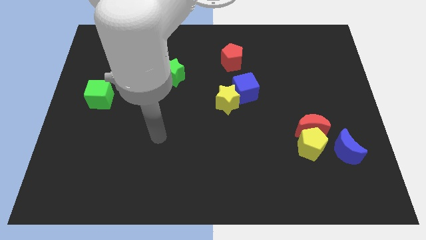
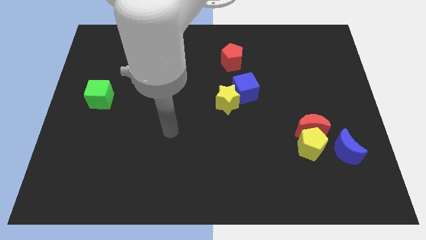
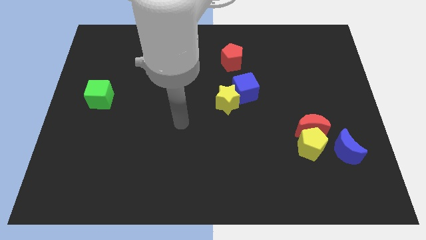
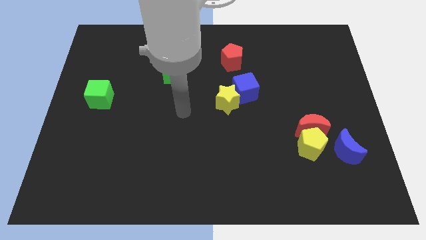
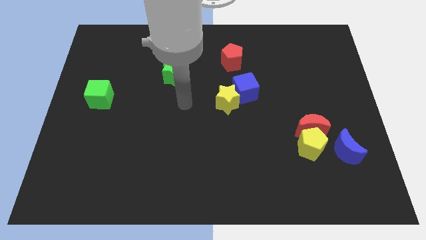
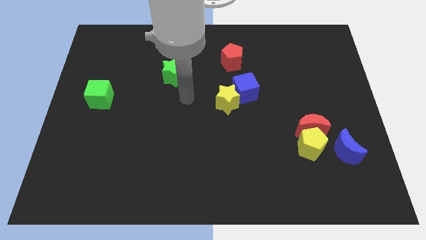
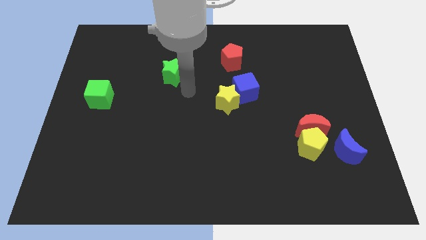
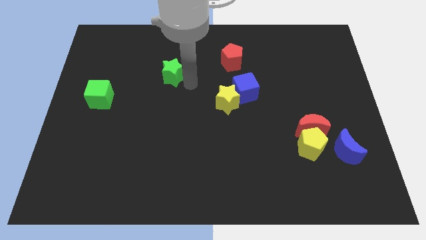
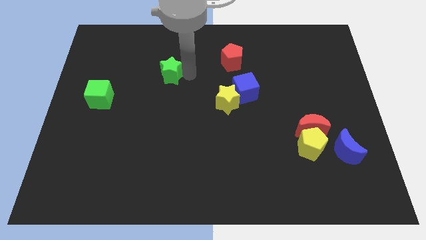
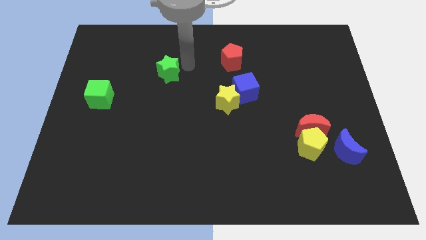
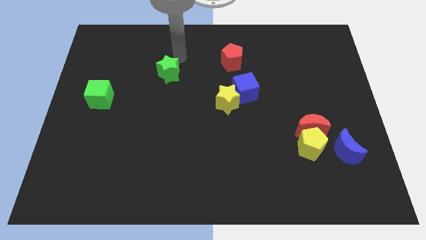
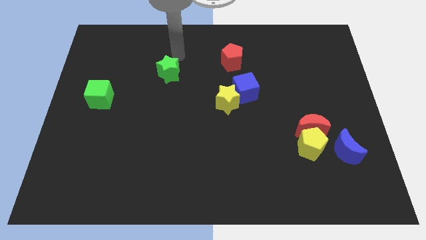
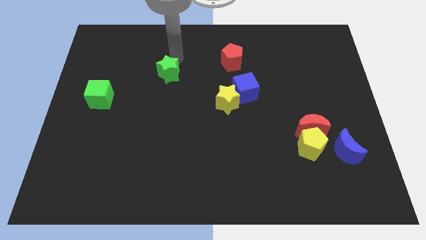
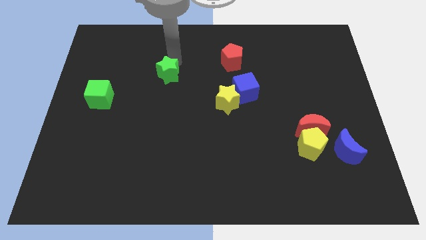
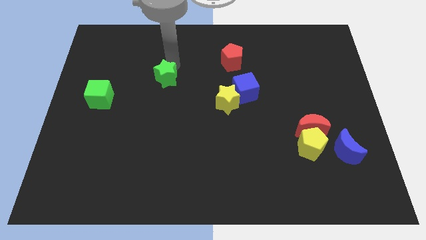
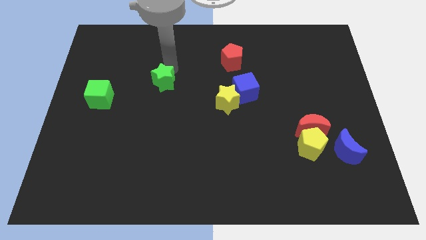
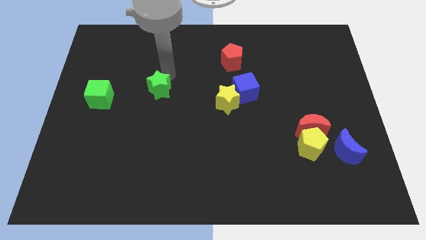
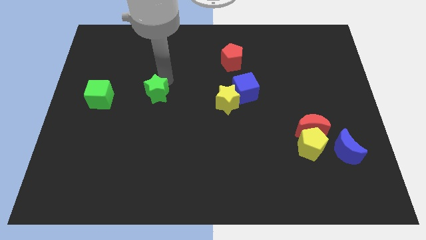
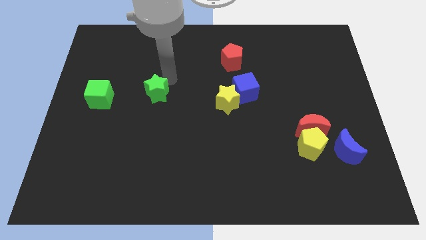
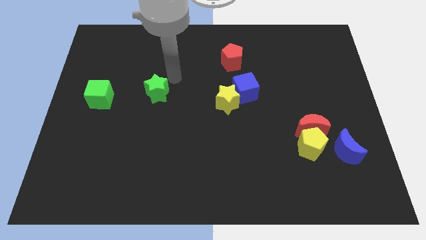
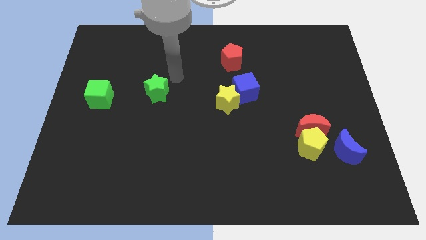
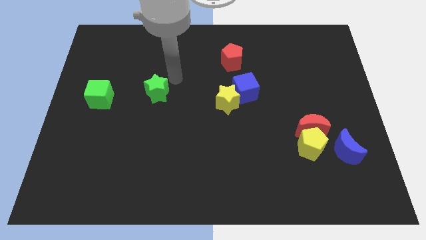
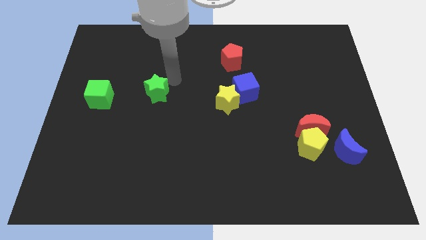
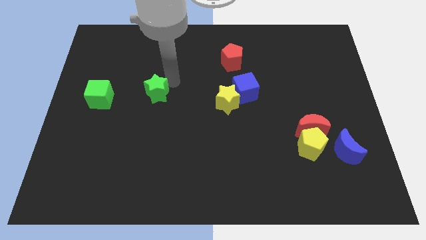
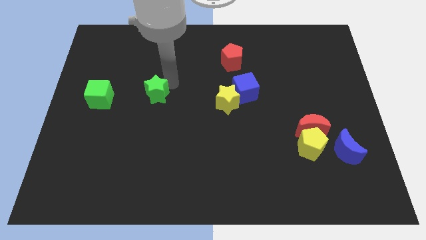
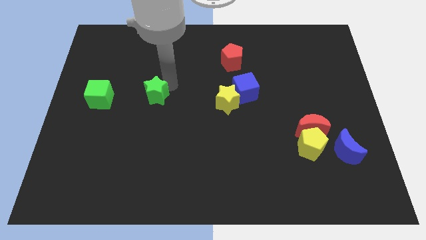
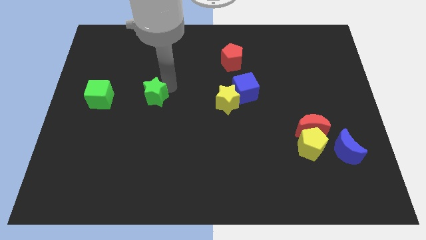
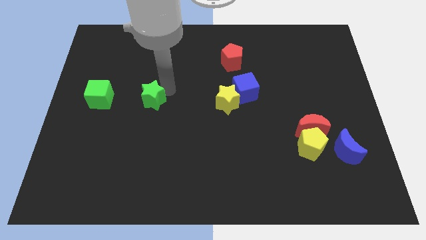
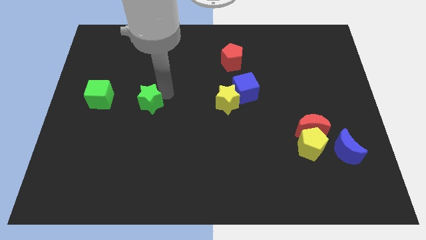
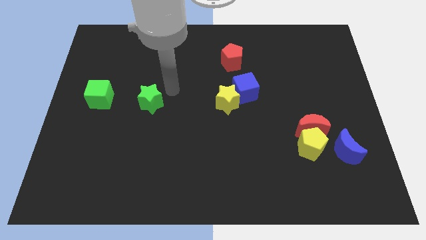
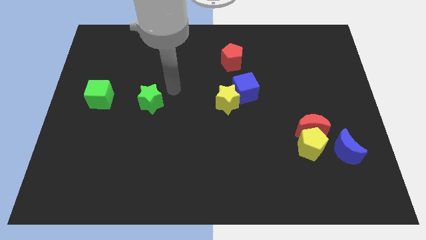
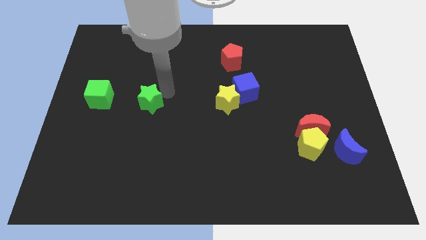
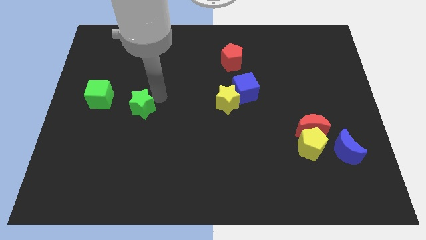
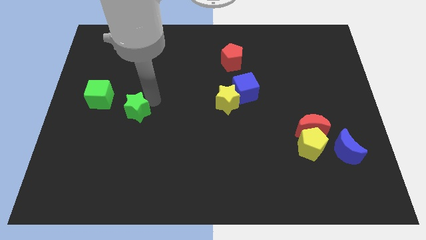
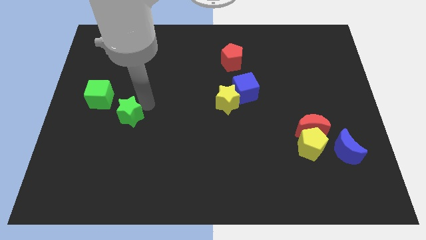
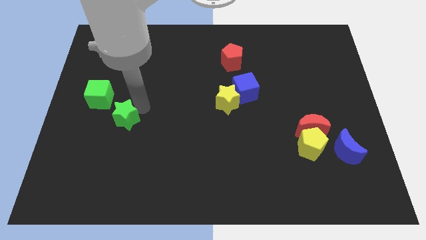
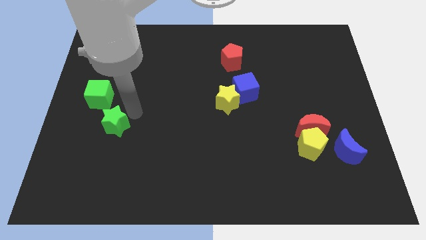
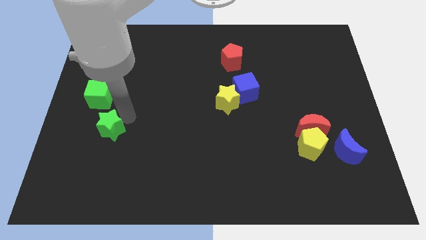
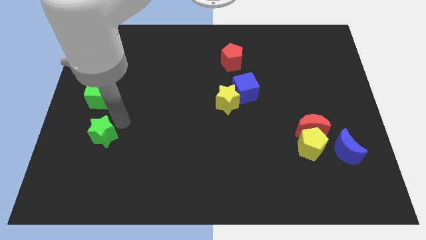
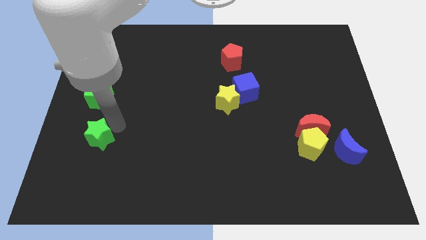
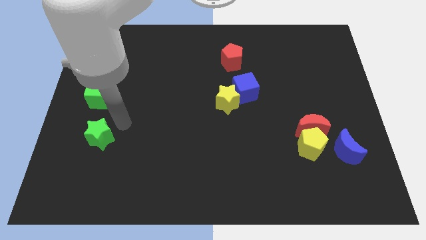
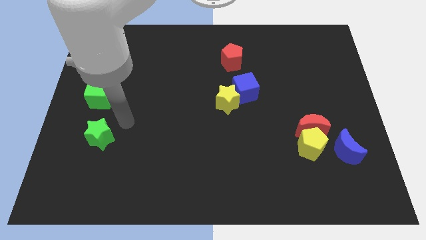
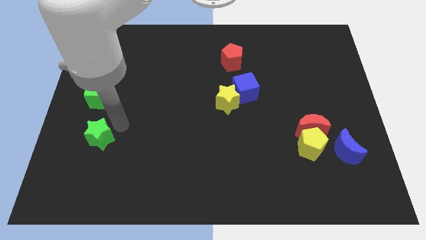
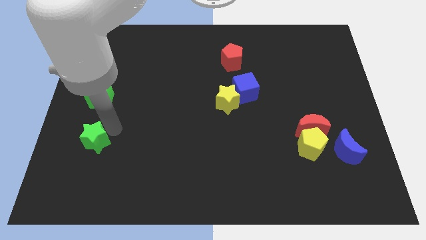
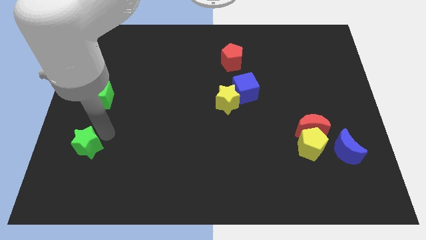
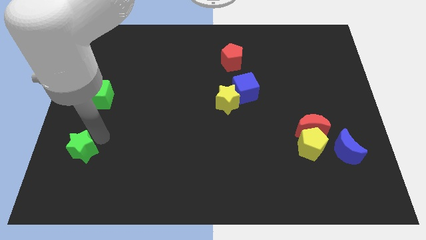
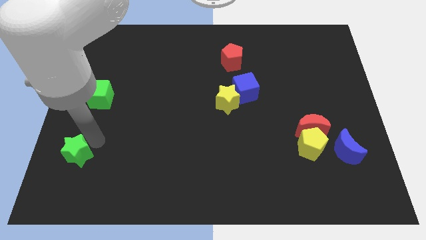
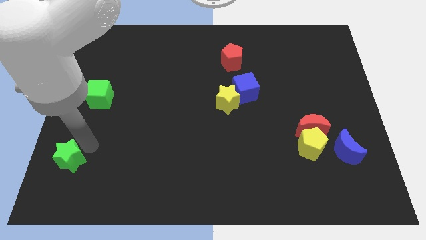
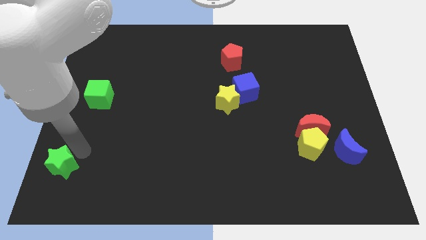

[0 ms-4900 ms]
slide the green star to the bottom left of the board

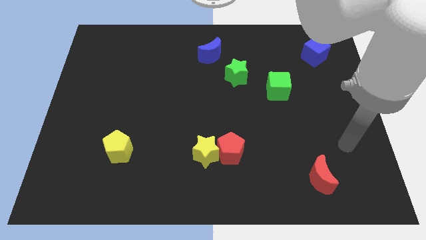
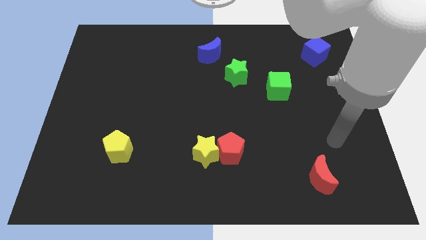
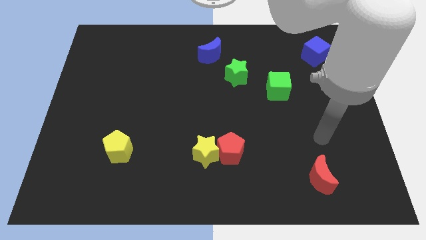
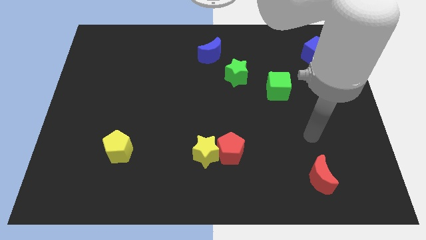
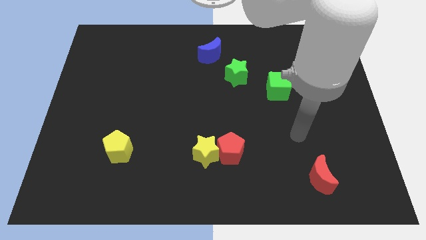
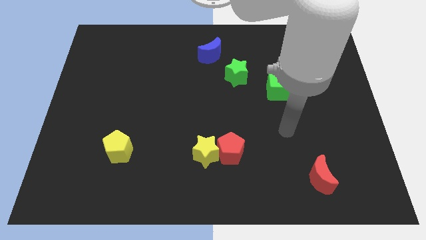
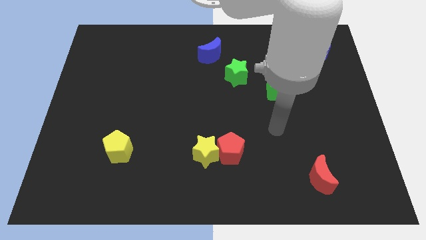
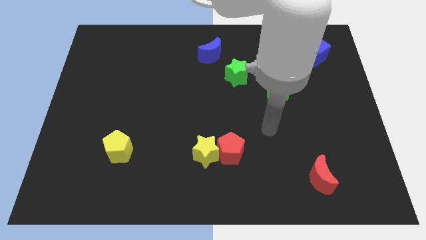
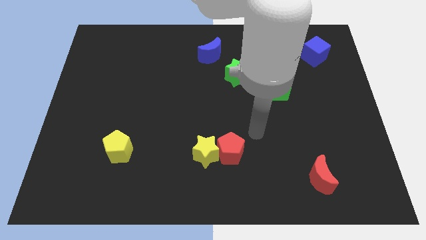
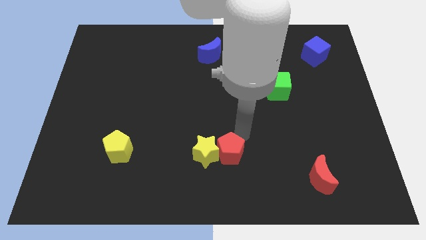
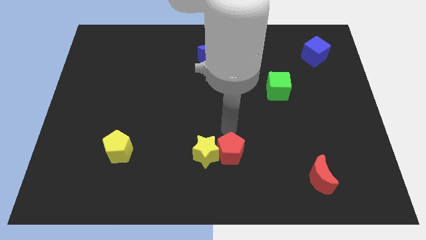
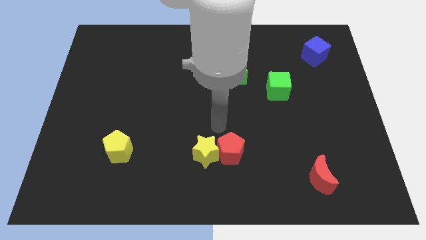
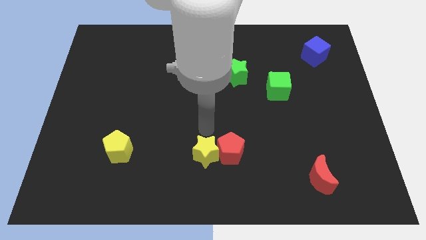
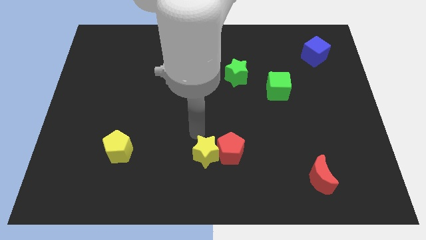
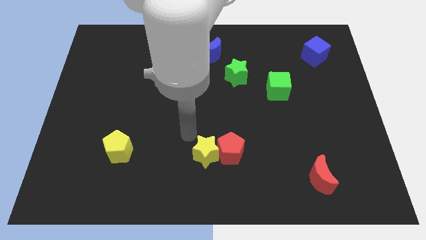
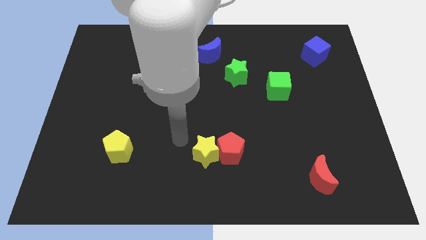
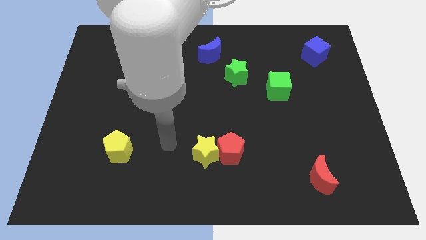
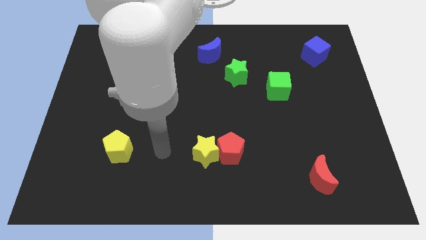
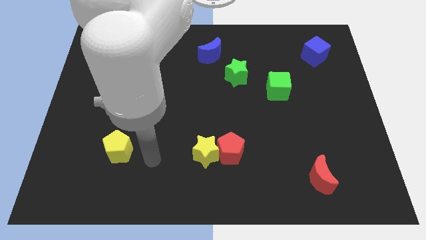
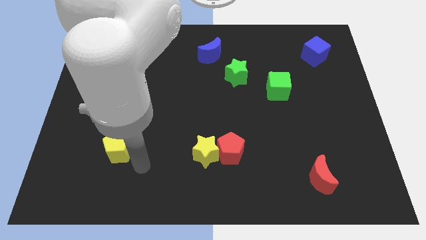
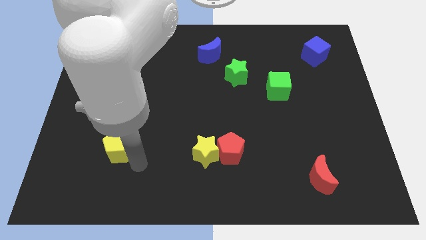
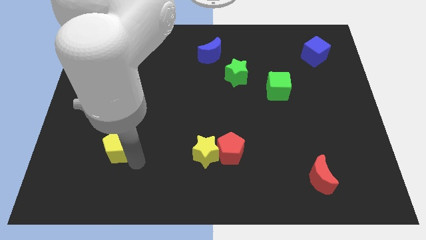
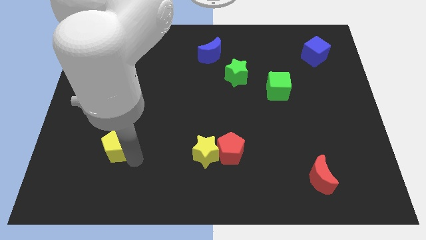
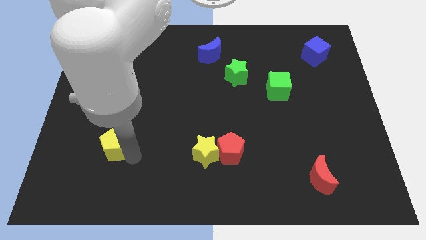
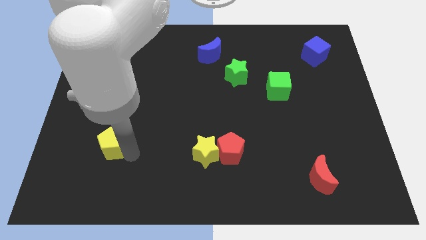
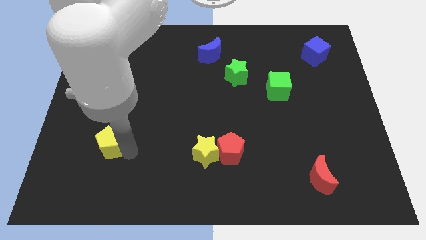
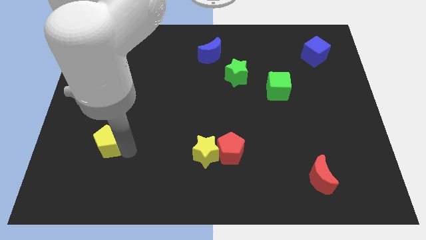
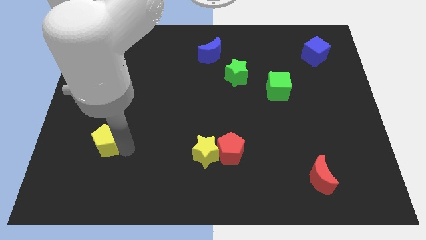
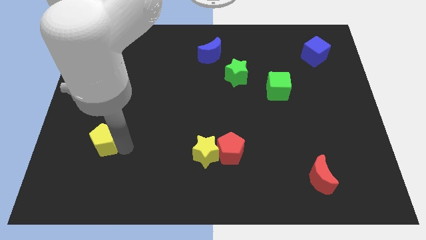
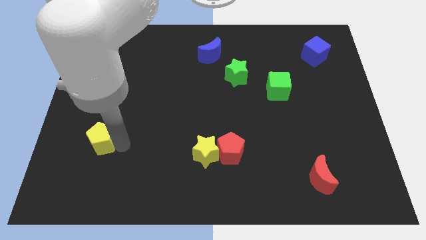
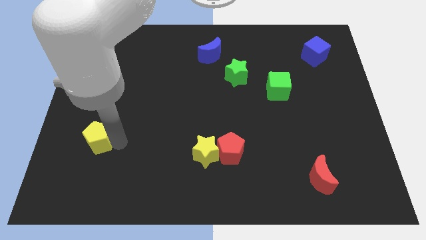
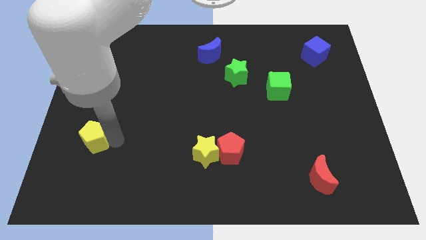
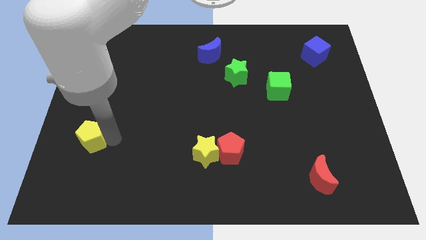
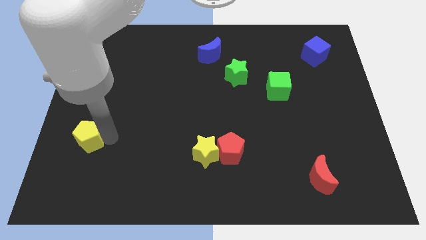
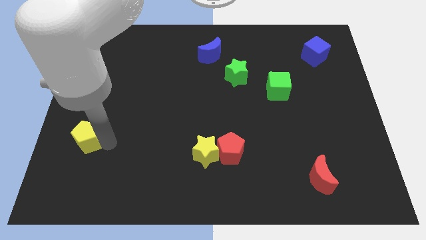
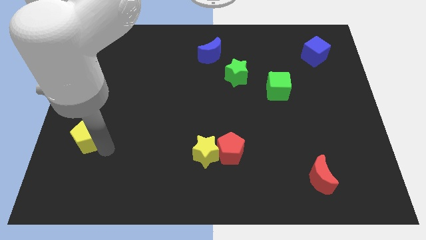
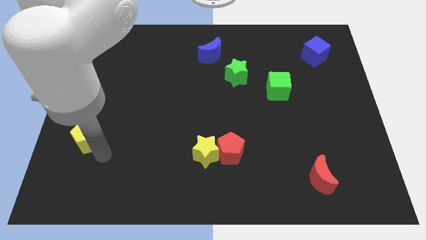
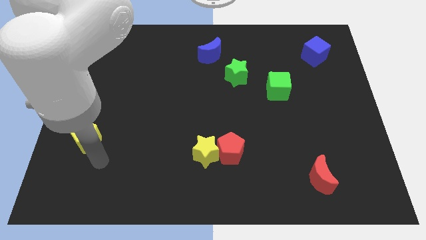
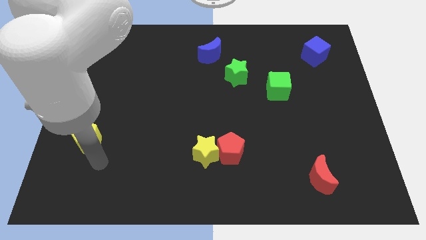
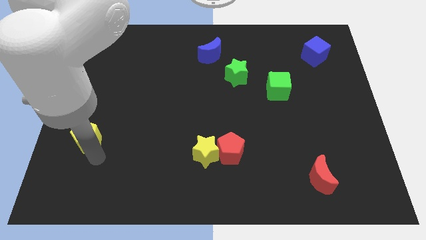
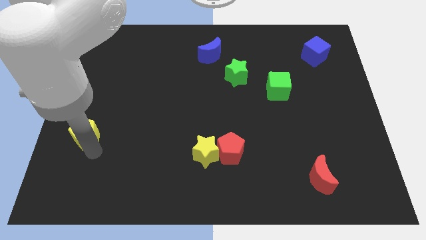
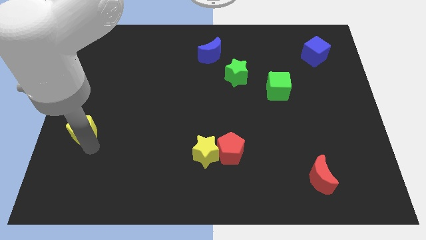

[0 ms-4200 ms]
move the yellow pentagon to the left side of the board
